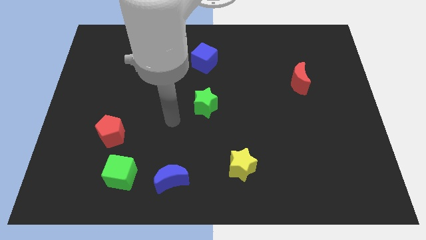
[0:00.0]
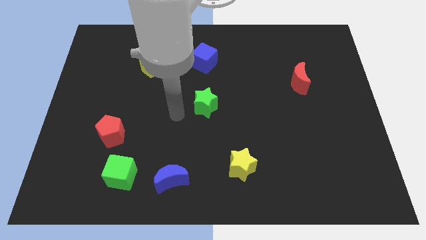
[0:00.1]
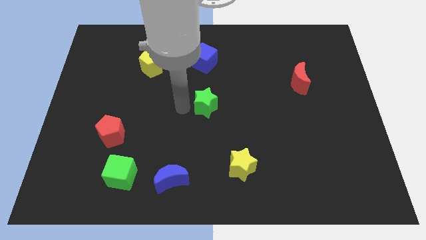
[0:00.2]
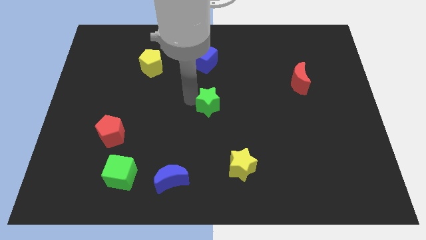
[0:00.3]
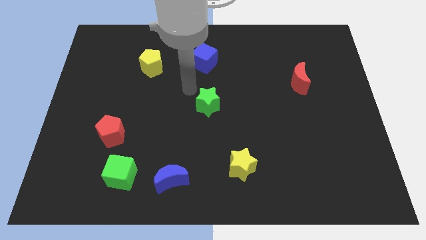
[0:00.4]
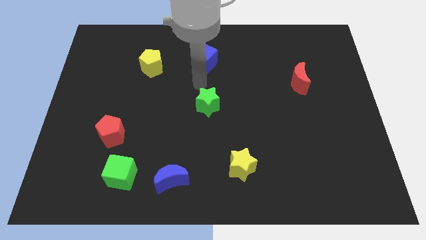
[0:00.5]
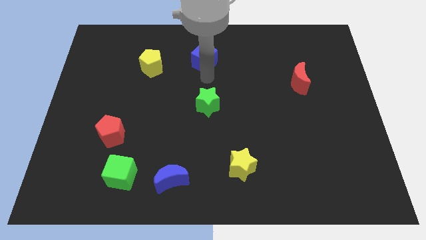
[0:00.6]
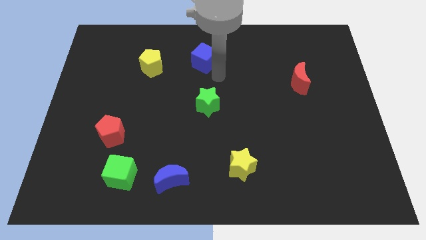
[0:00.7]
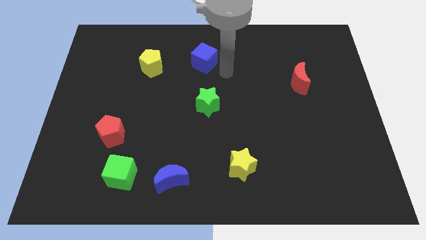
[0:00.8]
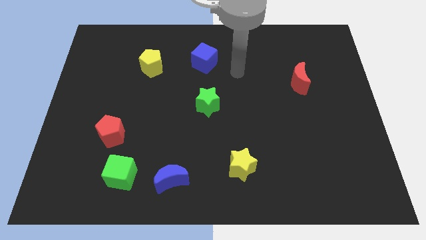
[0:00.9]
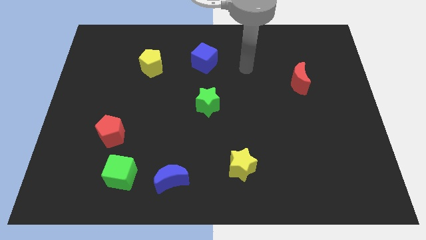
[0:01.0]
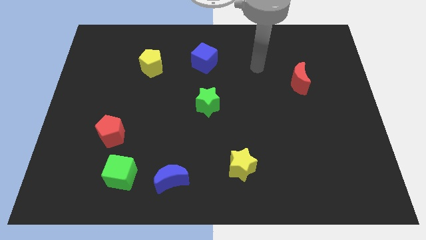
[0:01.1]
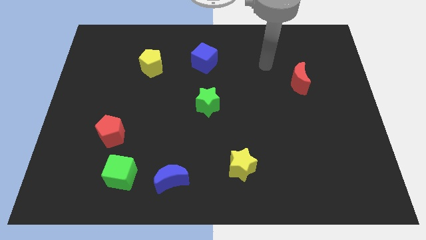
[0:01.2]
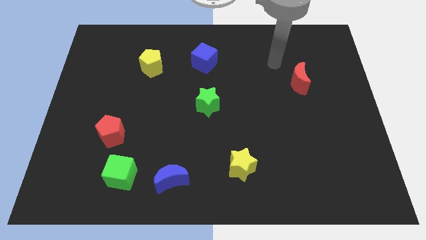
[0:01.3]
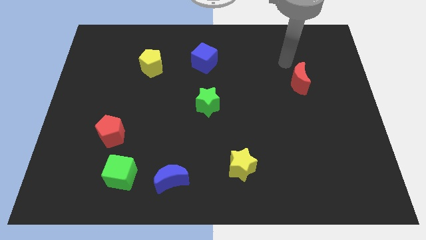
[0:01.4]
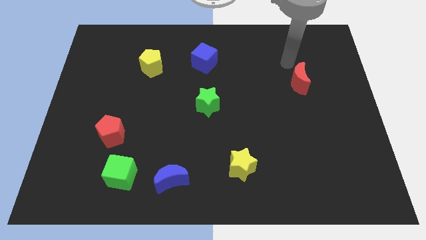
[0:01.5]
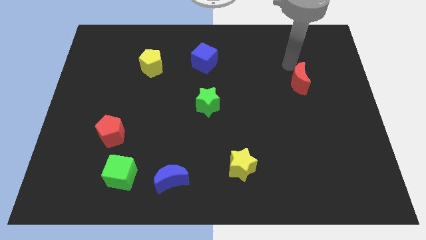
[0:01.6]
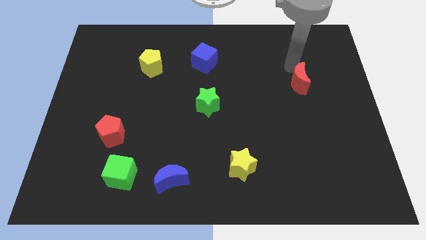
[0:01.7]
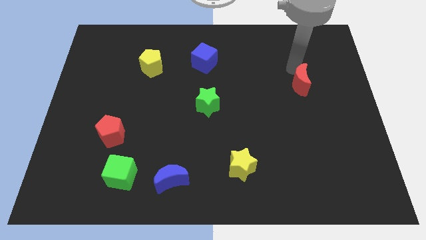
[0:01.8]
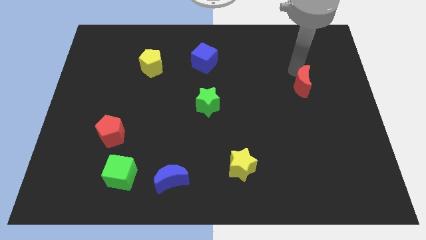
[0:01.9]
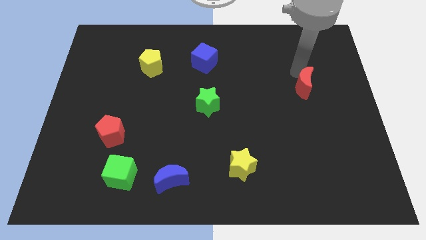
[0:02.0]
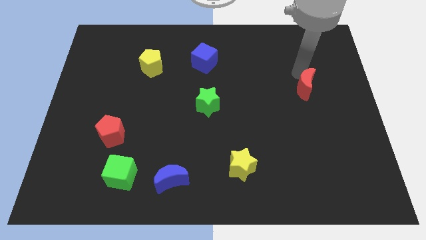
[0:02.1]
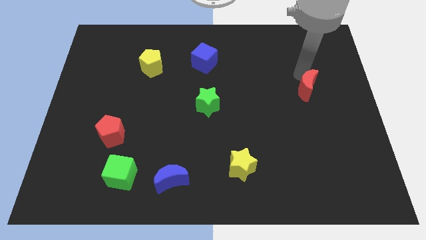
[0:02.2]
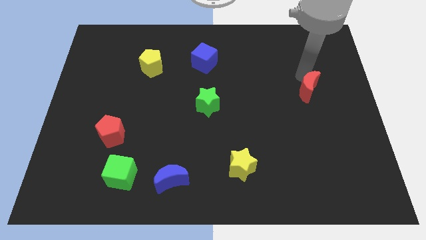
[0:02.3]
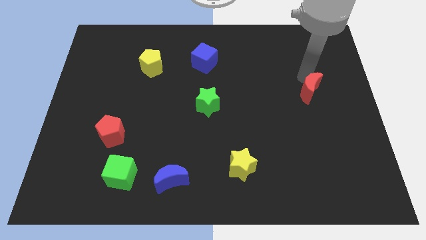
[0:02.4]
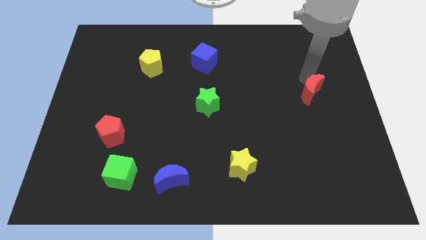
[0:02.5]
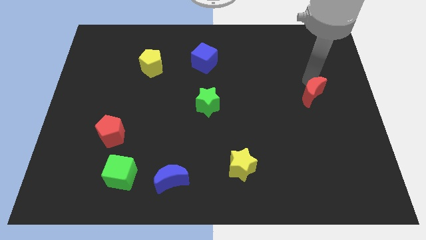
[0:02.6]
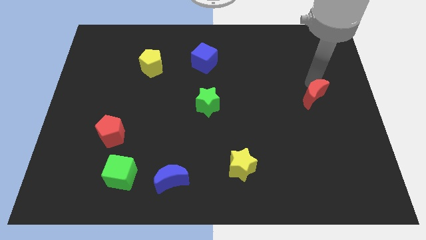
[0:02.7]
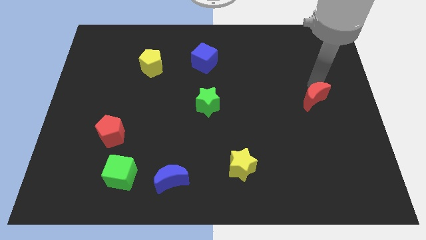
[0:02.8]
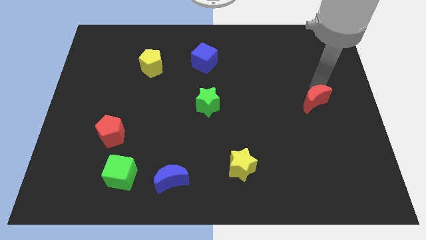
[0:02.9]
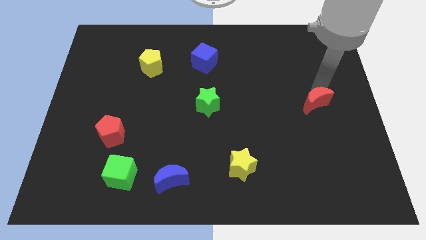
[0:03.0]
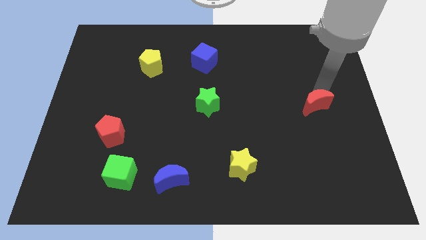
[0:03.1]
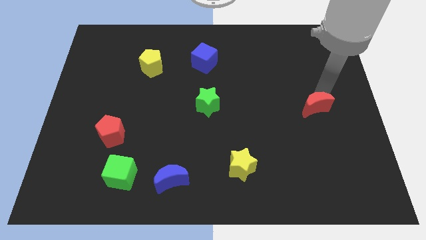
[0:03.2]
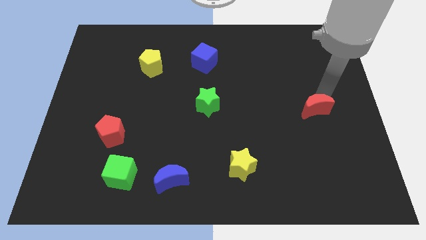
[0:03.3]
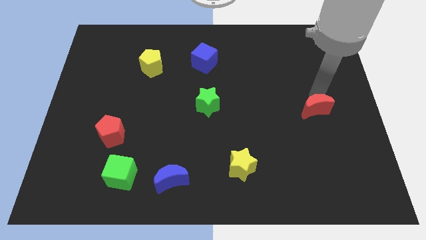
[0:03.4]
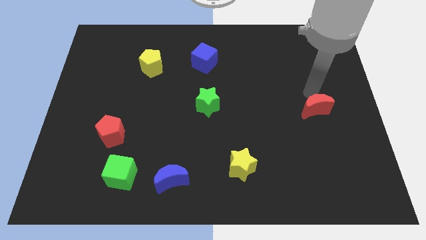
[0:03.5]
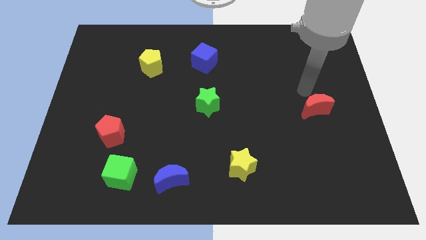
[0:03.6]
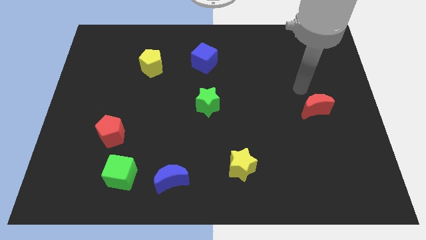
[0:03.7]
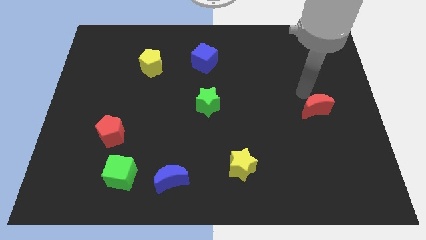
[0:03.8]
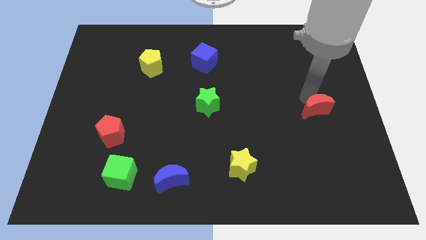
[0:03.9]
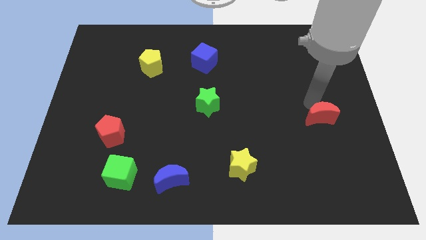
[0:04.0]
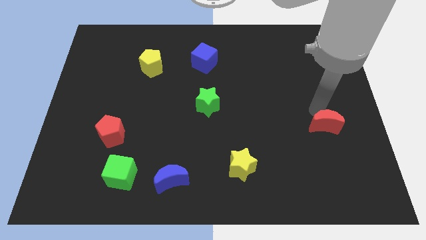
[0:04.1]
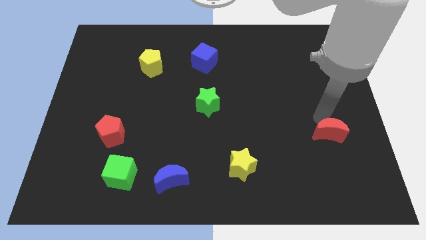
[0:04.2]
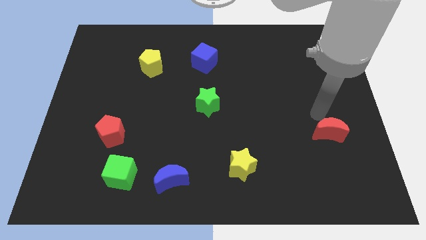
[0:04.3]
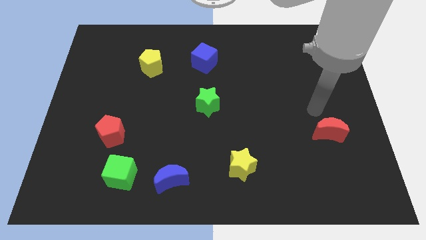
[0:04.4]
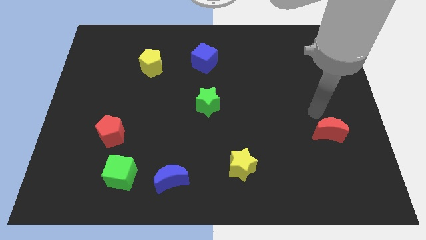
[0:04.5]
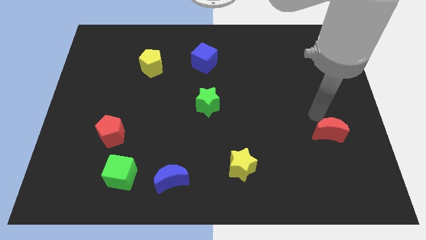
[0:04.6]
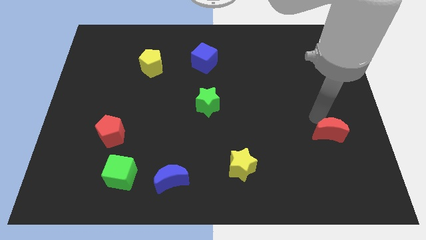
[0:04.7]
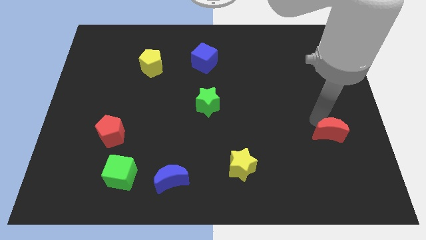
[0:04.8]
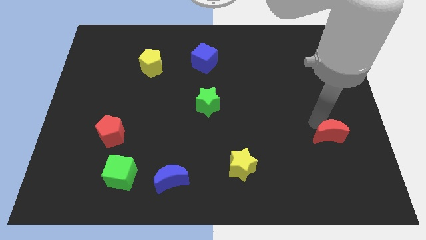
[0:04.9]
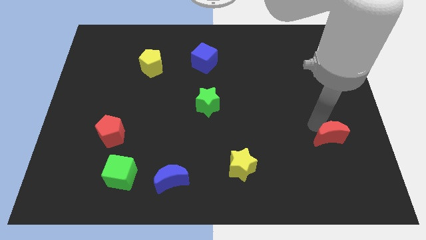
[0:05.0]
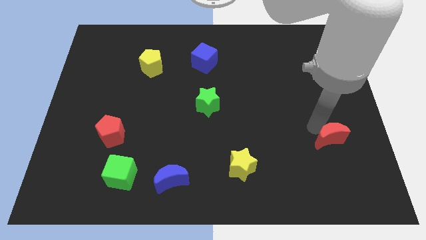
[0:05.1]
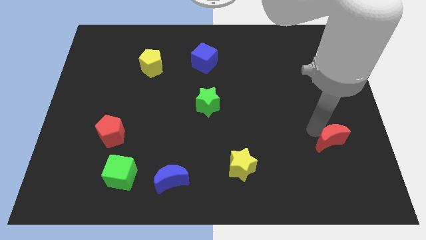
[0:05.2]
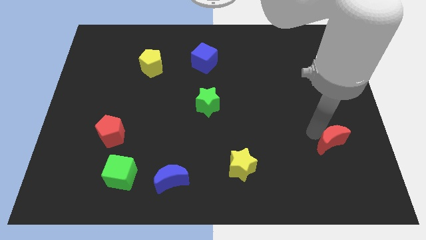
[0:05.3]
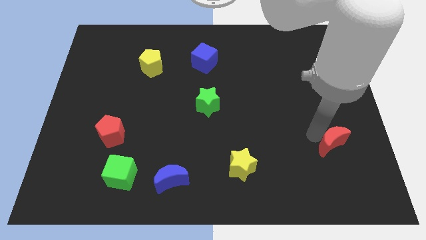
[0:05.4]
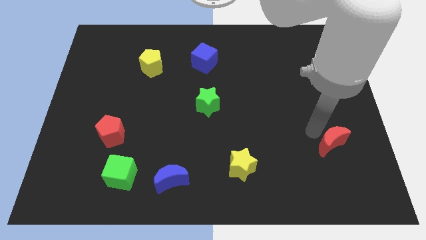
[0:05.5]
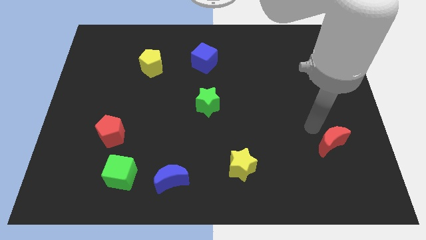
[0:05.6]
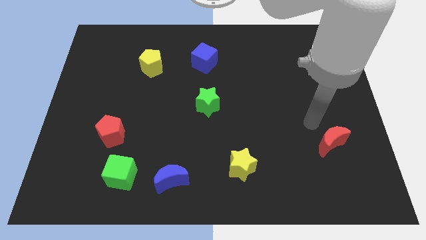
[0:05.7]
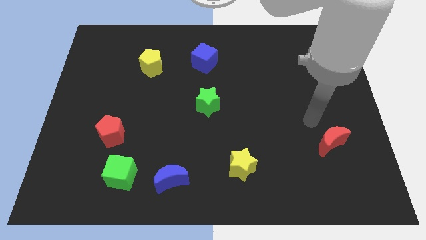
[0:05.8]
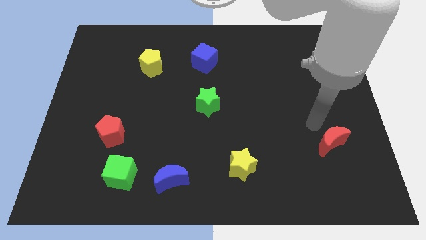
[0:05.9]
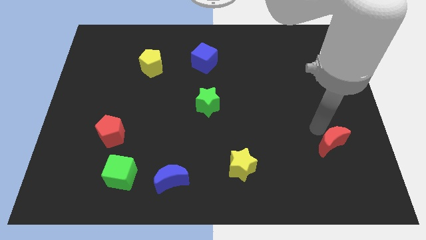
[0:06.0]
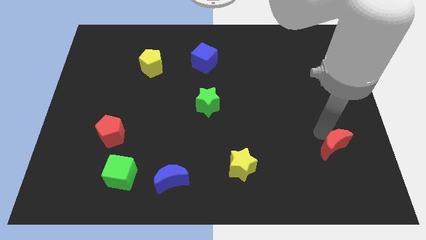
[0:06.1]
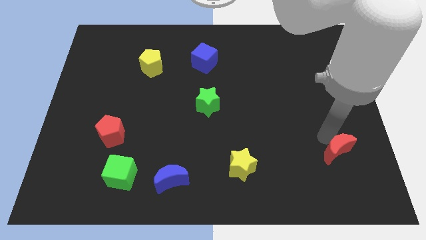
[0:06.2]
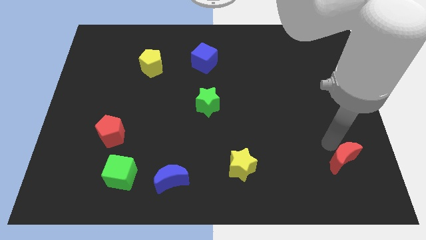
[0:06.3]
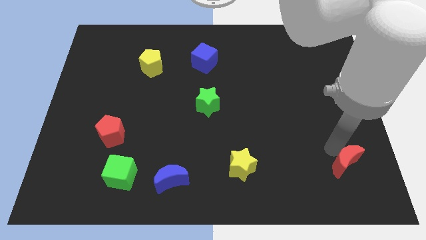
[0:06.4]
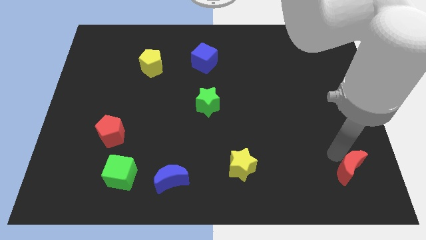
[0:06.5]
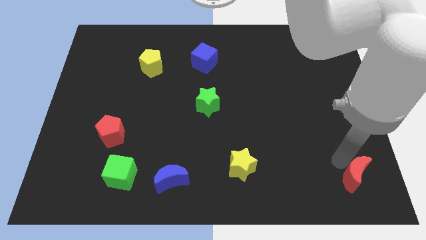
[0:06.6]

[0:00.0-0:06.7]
slide the red moon to the bottom right

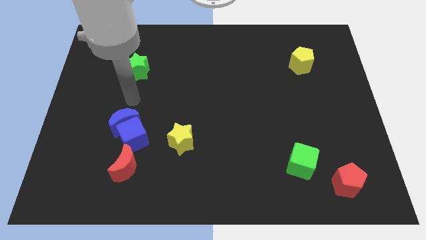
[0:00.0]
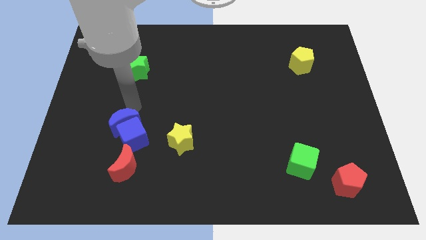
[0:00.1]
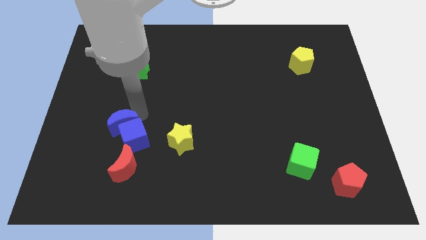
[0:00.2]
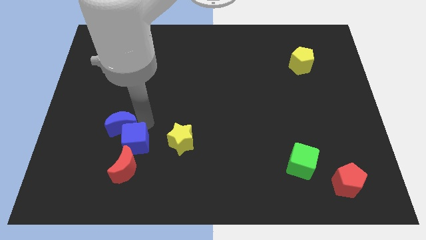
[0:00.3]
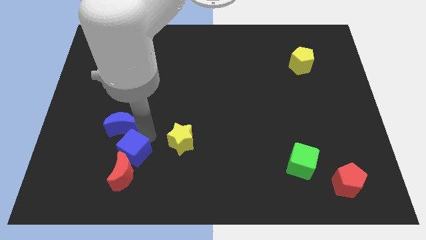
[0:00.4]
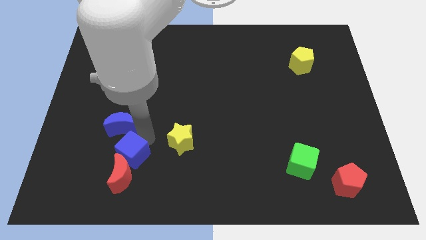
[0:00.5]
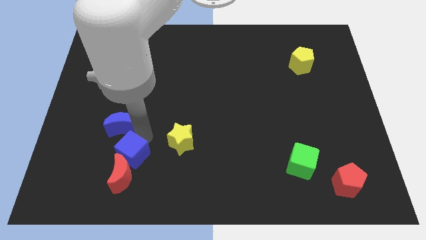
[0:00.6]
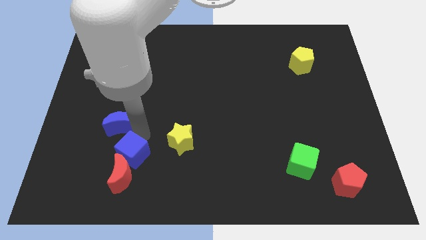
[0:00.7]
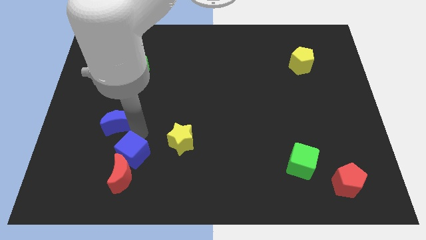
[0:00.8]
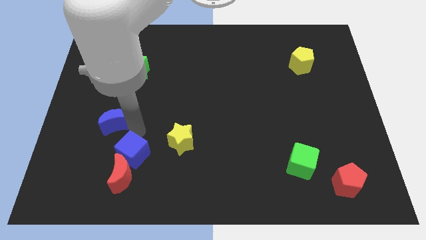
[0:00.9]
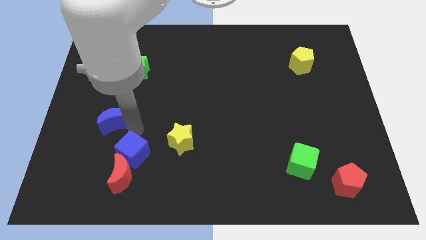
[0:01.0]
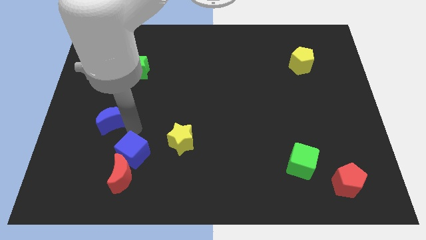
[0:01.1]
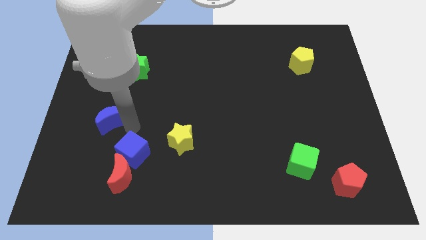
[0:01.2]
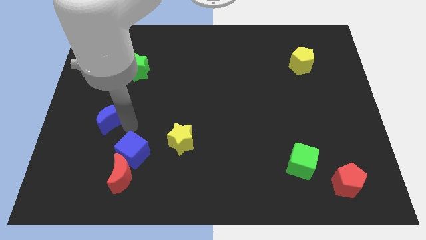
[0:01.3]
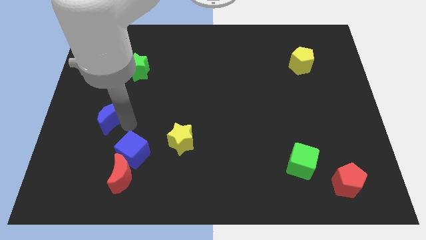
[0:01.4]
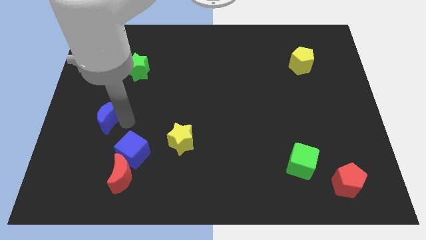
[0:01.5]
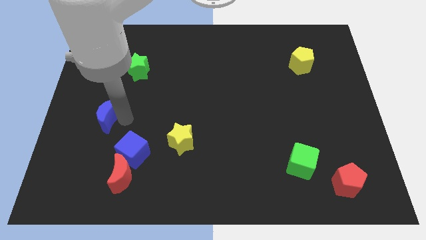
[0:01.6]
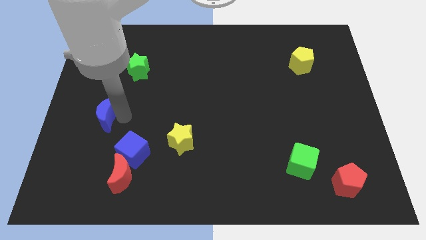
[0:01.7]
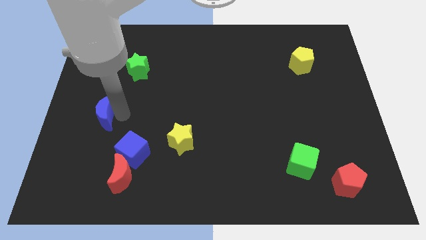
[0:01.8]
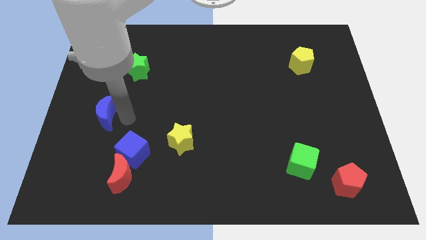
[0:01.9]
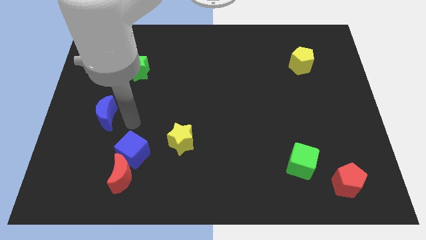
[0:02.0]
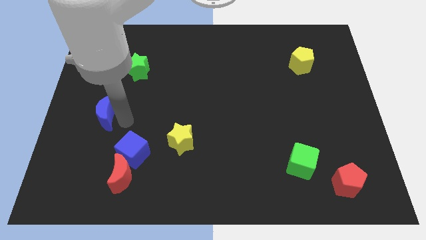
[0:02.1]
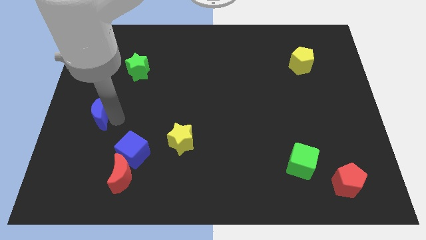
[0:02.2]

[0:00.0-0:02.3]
move the blue moon to the center left
